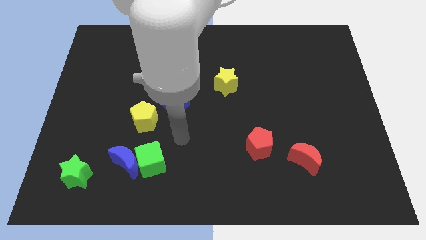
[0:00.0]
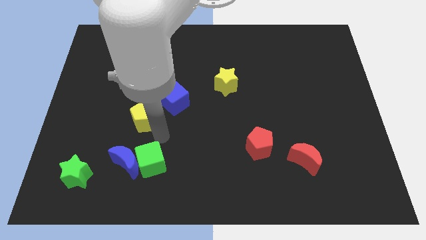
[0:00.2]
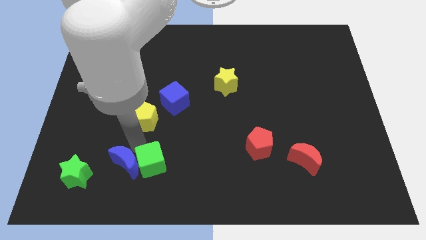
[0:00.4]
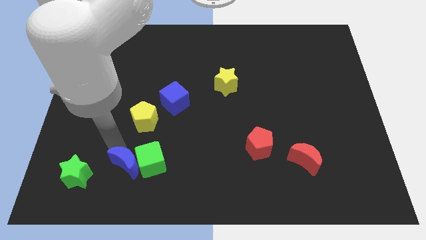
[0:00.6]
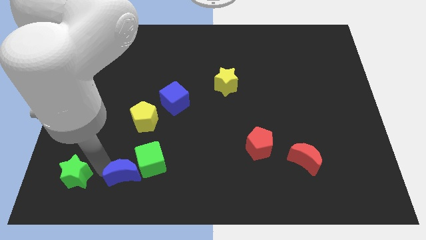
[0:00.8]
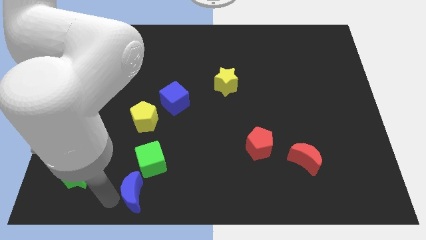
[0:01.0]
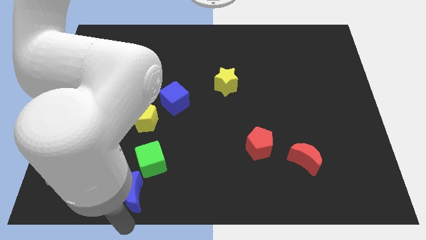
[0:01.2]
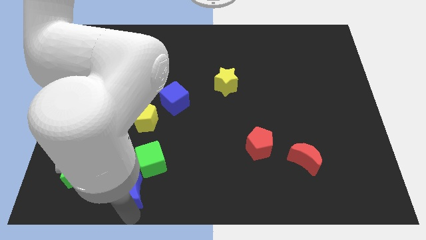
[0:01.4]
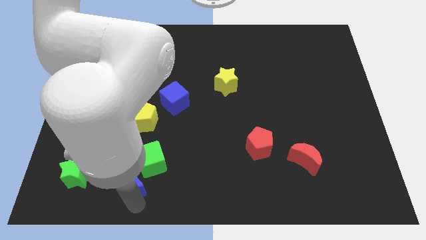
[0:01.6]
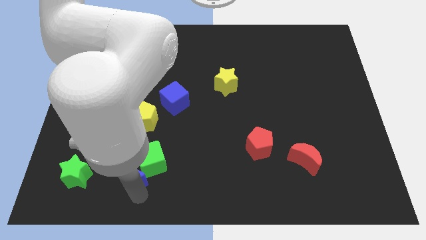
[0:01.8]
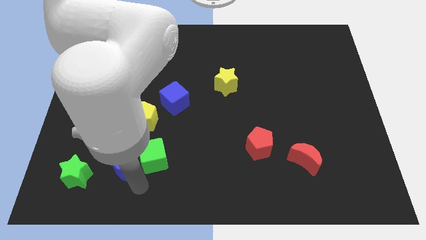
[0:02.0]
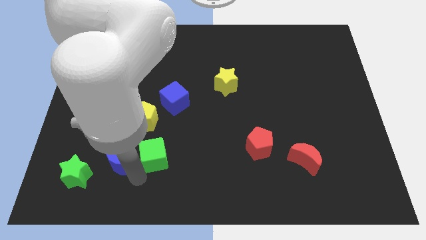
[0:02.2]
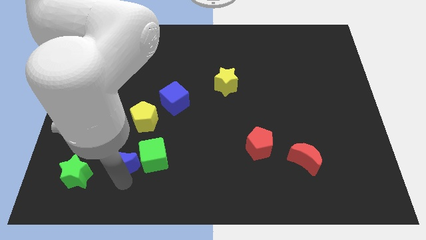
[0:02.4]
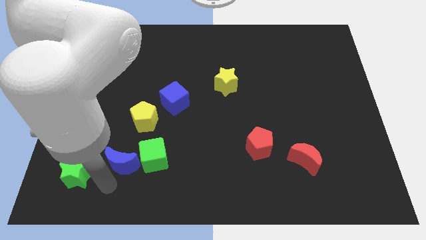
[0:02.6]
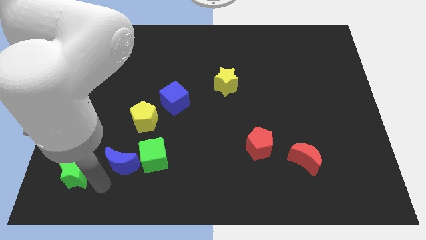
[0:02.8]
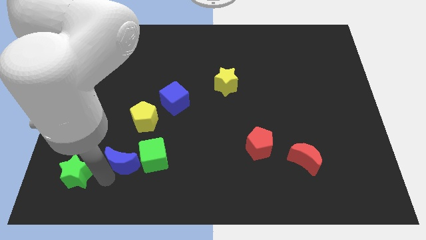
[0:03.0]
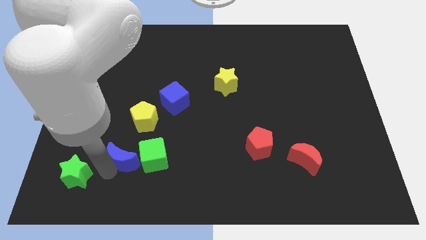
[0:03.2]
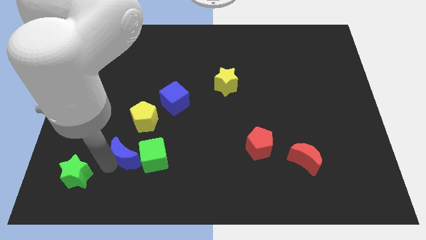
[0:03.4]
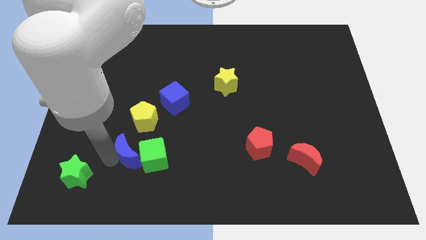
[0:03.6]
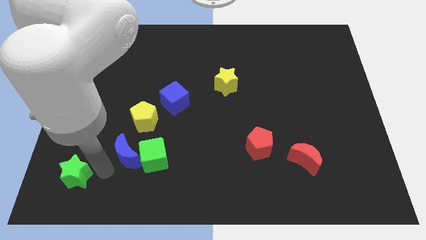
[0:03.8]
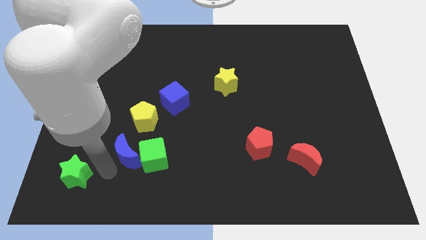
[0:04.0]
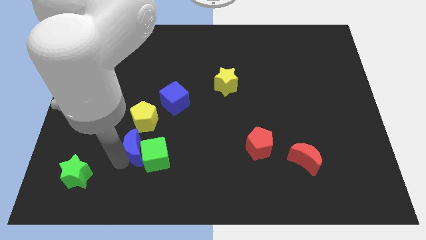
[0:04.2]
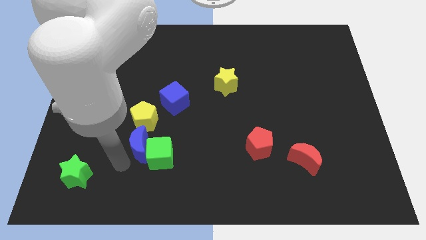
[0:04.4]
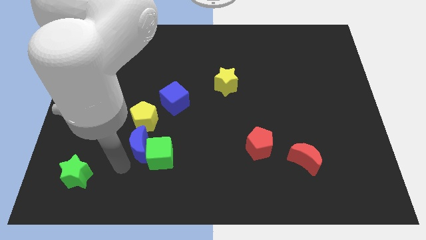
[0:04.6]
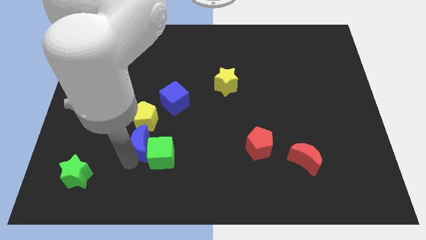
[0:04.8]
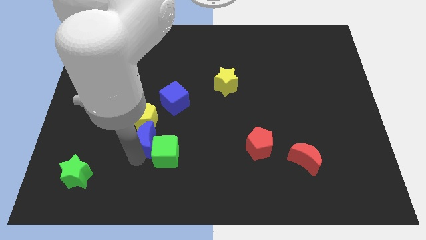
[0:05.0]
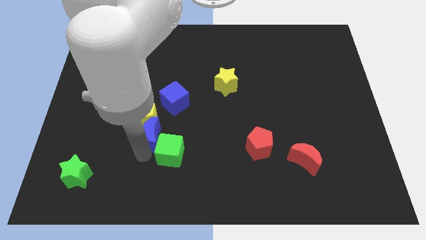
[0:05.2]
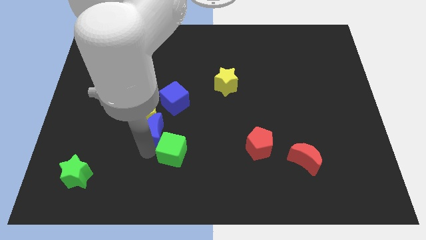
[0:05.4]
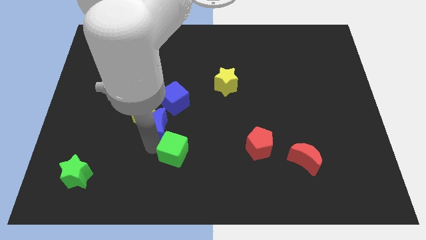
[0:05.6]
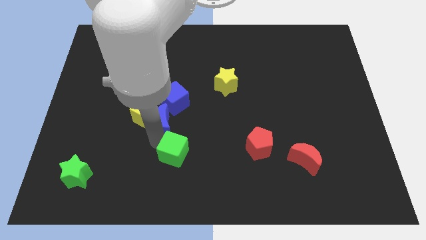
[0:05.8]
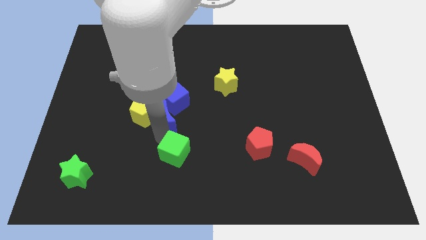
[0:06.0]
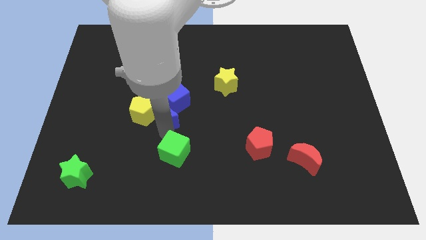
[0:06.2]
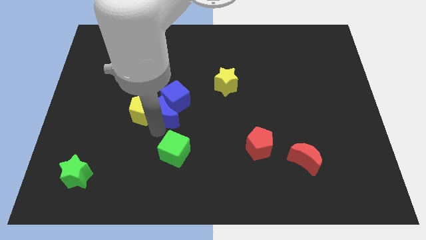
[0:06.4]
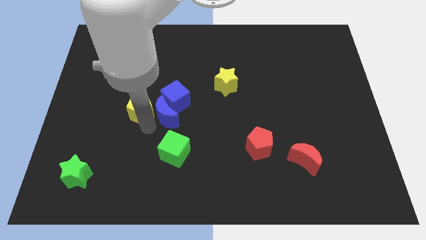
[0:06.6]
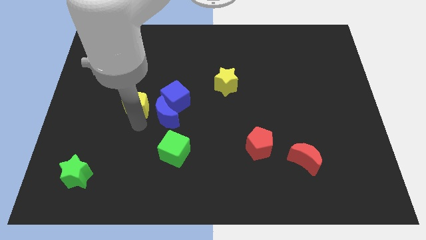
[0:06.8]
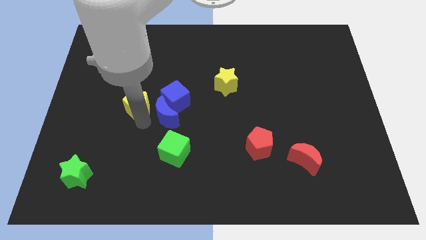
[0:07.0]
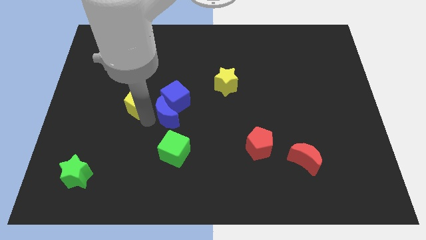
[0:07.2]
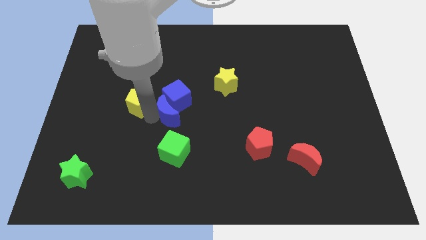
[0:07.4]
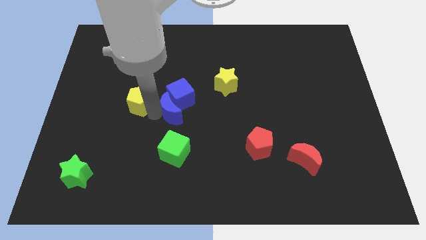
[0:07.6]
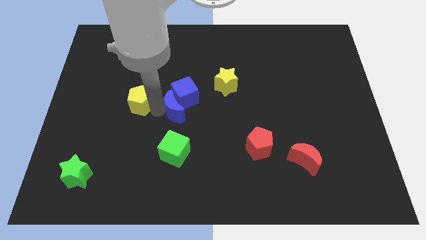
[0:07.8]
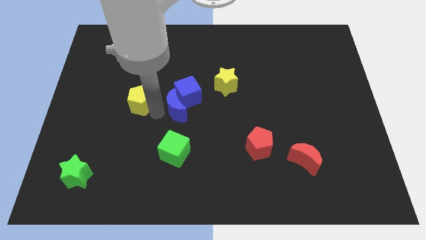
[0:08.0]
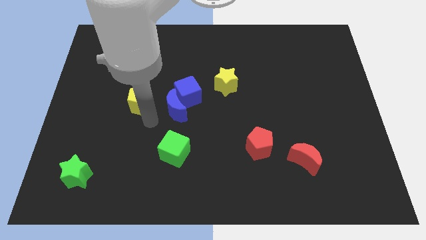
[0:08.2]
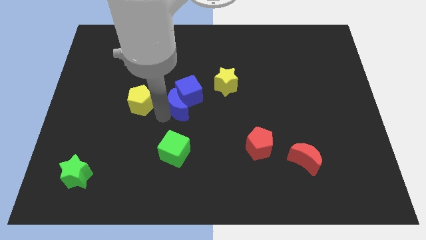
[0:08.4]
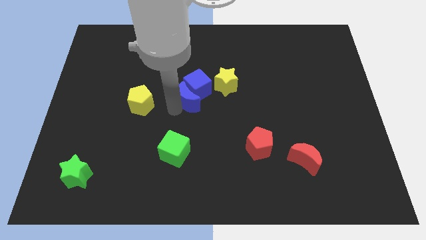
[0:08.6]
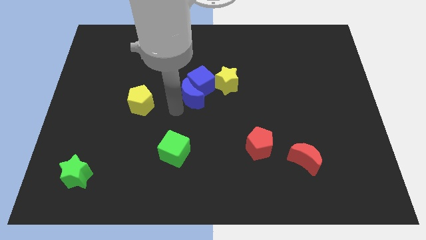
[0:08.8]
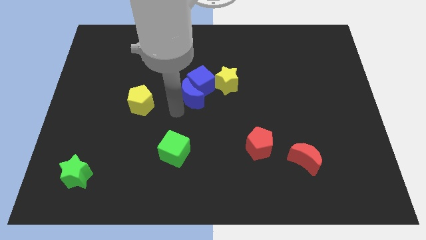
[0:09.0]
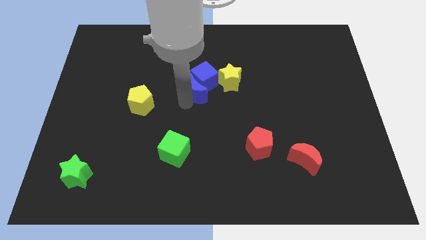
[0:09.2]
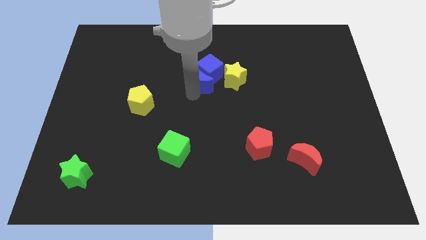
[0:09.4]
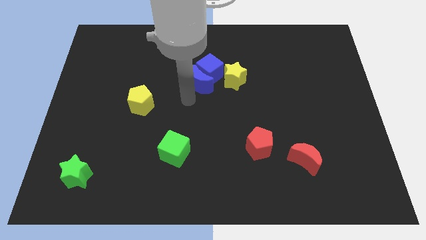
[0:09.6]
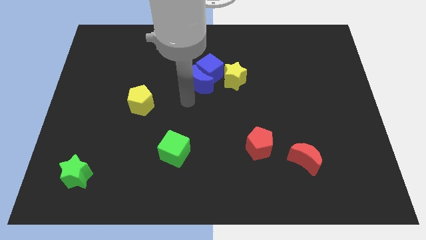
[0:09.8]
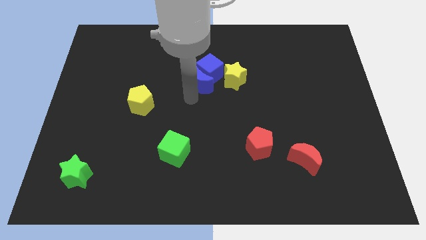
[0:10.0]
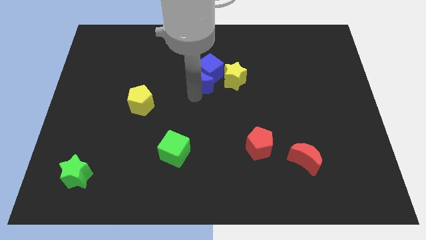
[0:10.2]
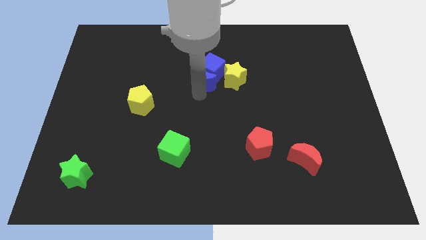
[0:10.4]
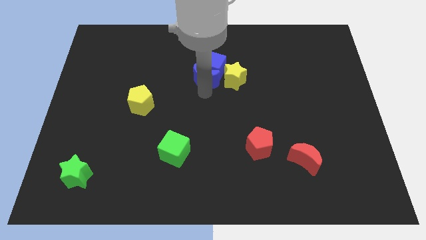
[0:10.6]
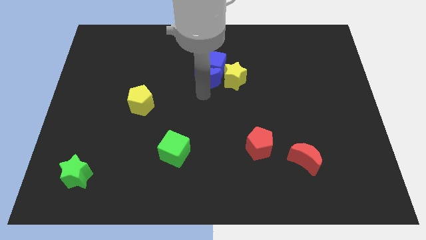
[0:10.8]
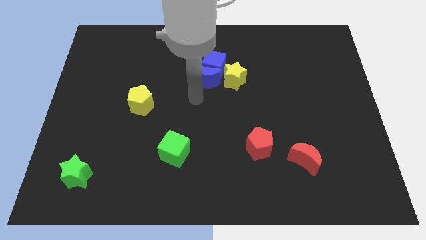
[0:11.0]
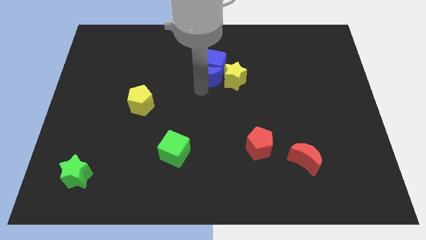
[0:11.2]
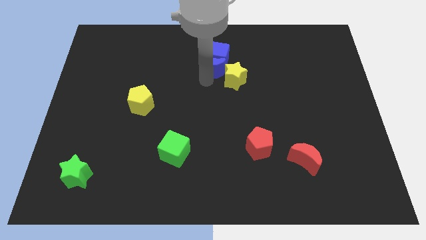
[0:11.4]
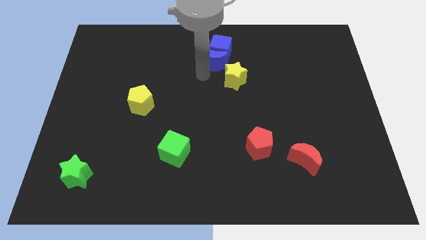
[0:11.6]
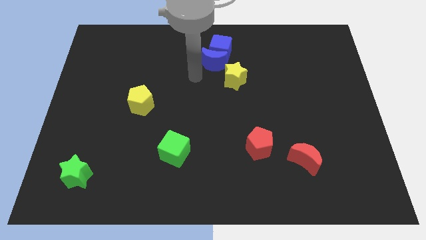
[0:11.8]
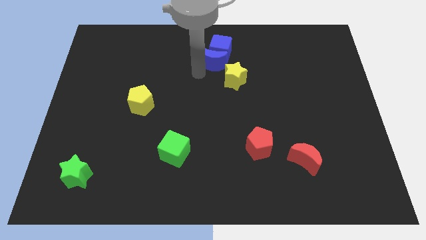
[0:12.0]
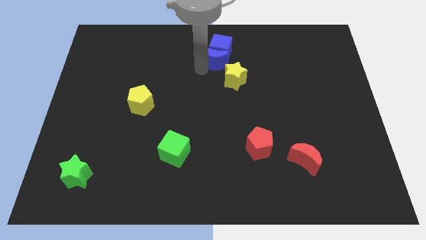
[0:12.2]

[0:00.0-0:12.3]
push the blue moon above the yellow star
